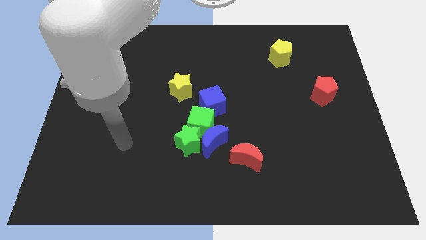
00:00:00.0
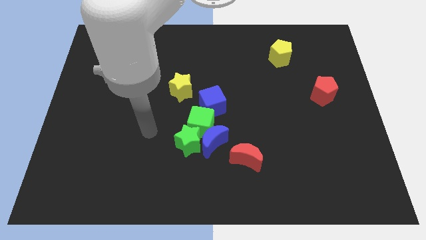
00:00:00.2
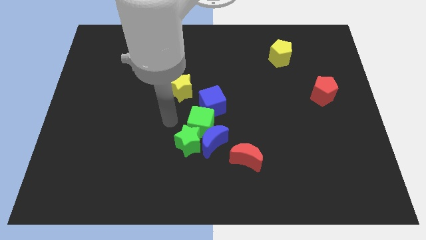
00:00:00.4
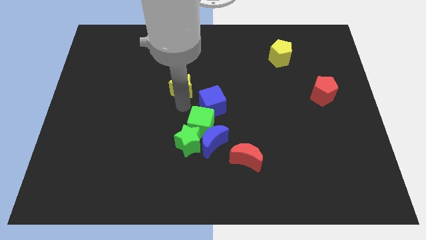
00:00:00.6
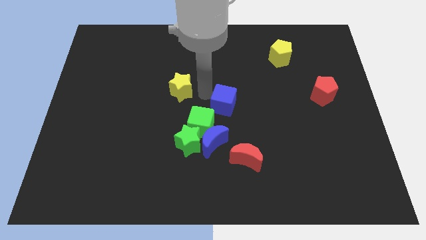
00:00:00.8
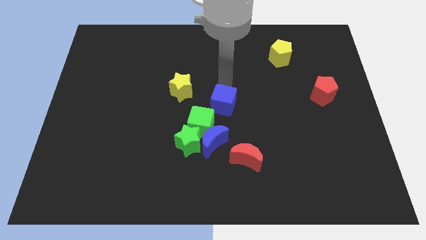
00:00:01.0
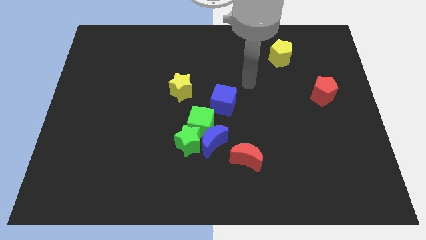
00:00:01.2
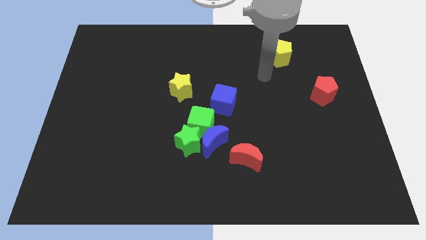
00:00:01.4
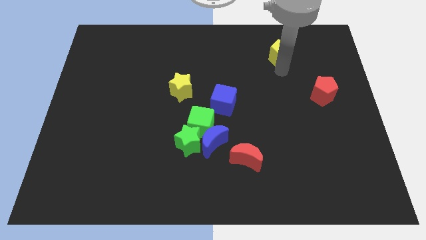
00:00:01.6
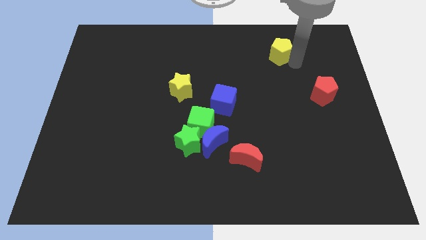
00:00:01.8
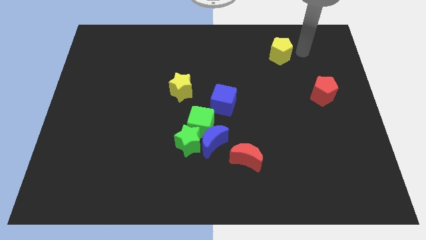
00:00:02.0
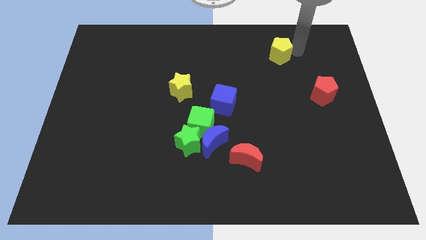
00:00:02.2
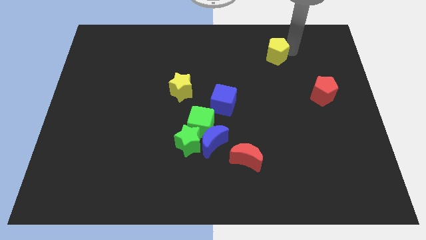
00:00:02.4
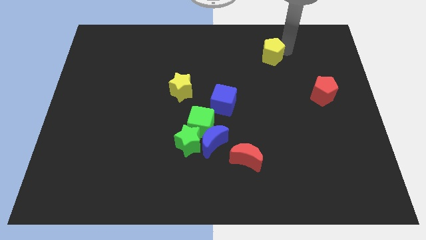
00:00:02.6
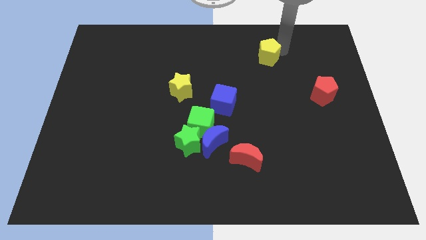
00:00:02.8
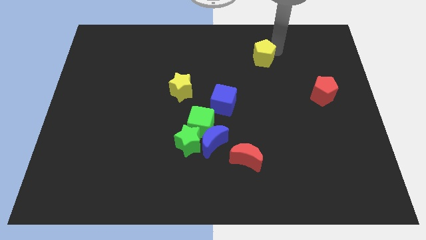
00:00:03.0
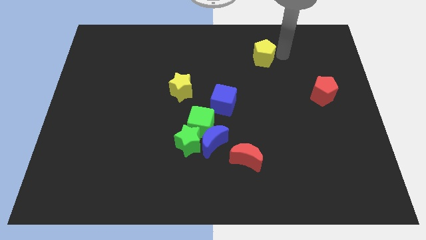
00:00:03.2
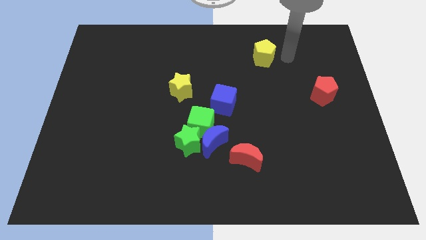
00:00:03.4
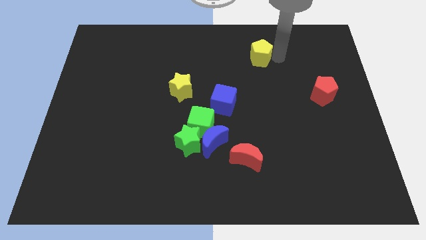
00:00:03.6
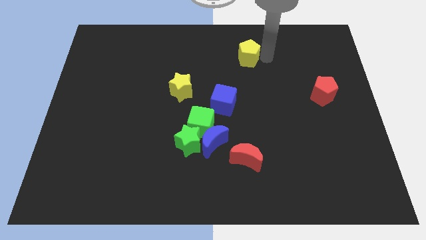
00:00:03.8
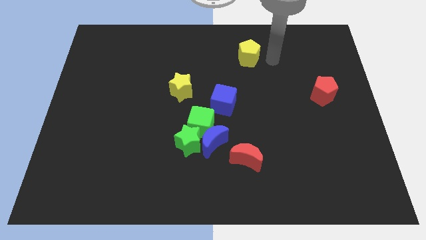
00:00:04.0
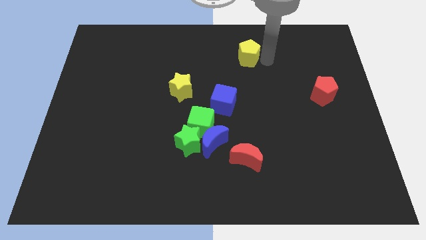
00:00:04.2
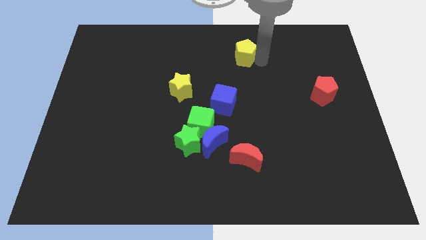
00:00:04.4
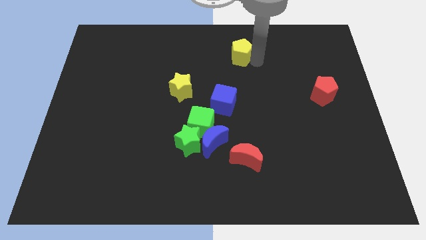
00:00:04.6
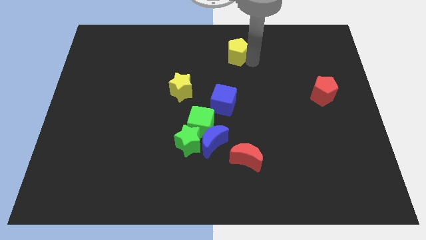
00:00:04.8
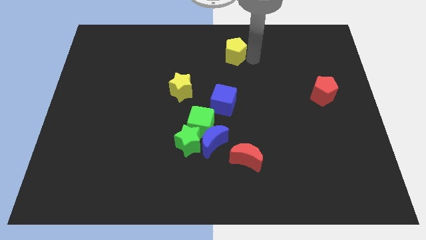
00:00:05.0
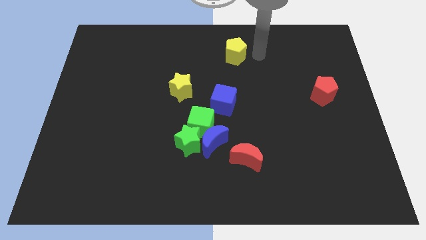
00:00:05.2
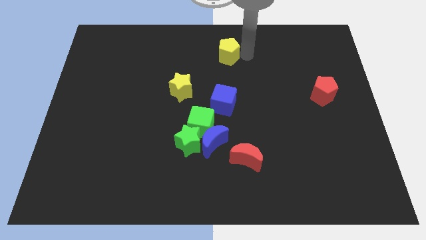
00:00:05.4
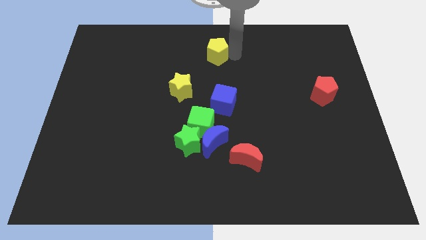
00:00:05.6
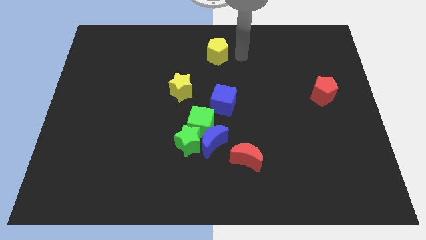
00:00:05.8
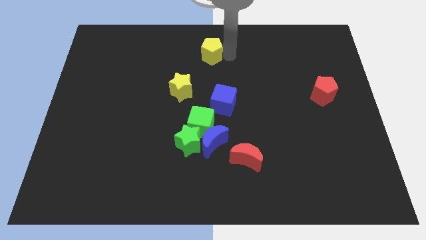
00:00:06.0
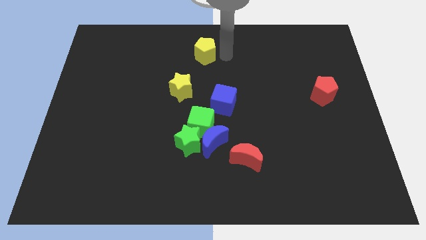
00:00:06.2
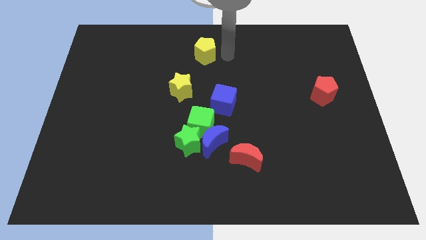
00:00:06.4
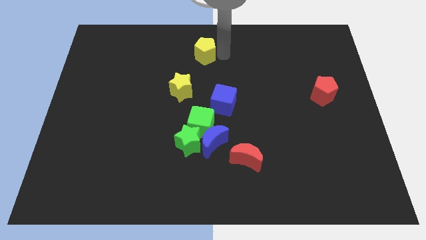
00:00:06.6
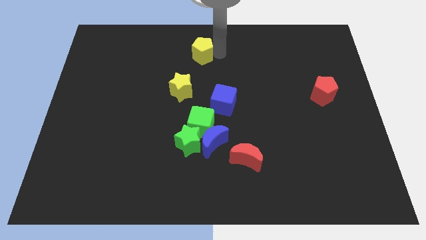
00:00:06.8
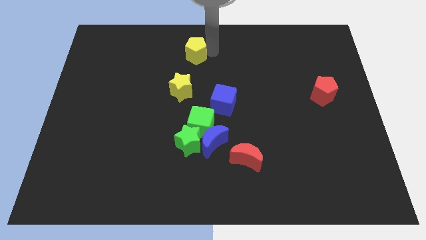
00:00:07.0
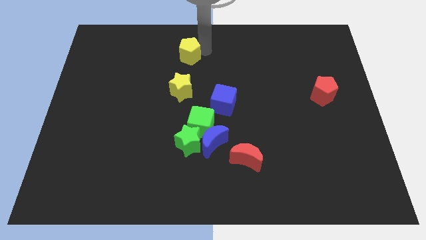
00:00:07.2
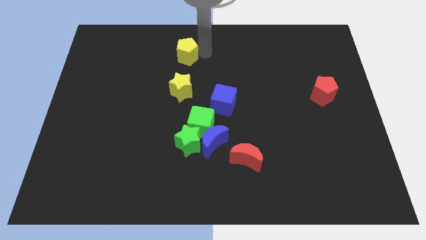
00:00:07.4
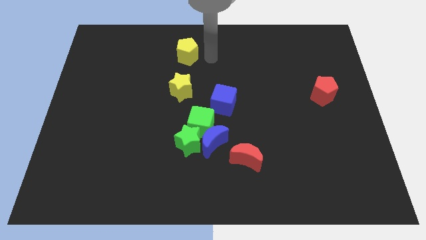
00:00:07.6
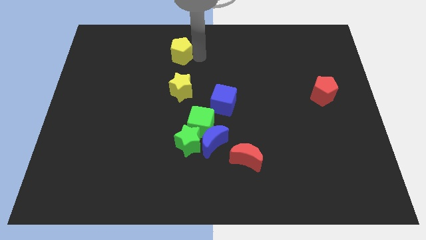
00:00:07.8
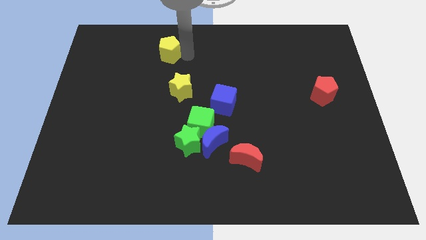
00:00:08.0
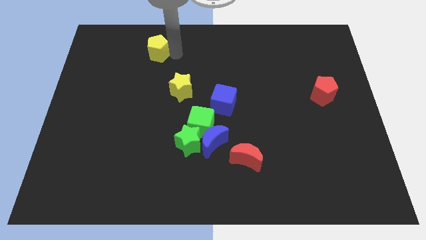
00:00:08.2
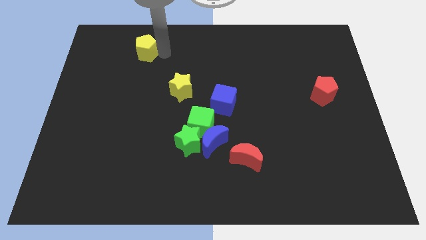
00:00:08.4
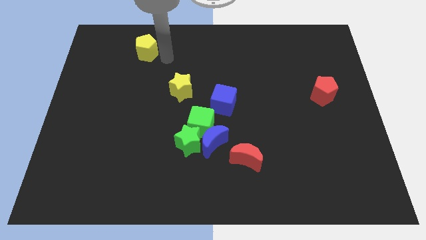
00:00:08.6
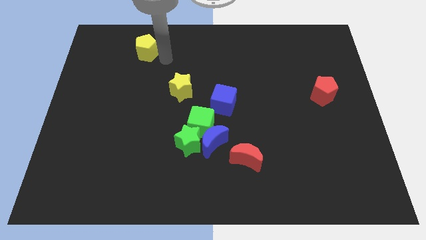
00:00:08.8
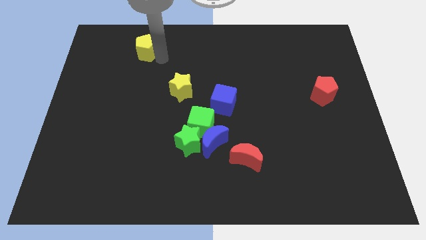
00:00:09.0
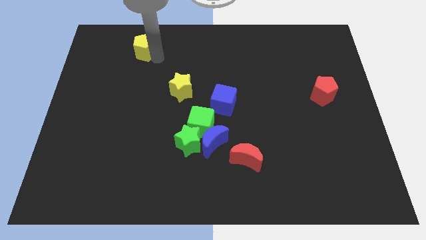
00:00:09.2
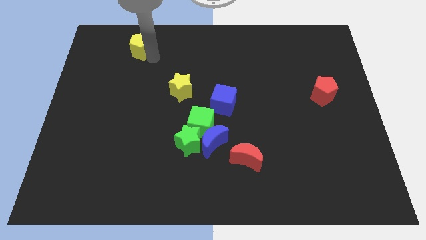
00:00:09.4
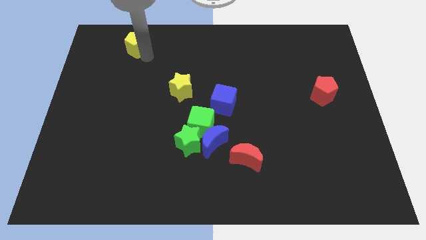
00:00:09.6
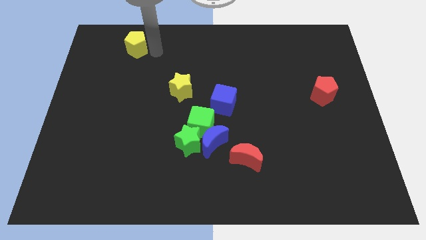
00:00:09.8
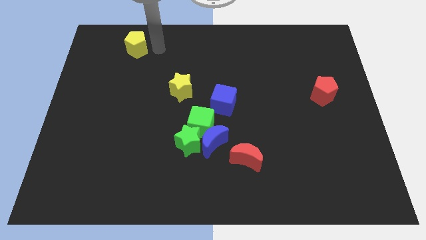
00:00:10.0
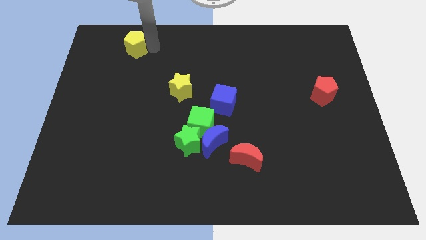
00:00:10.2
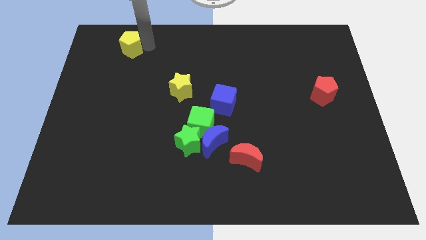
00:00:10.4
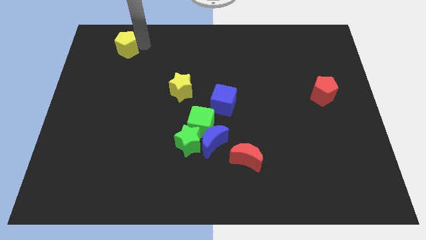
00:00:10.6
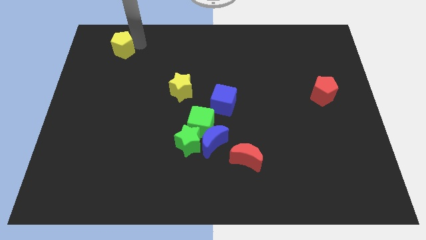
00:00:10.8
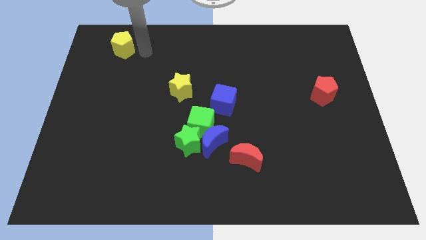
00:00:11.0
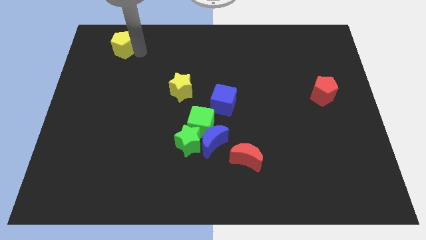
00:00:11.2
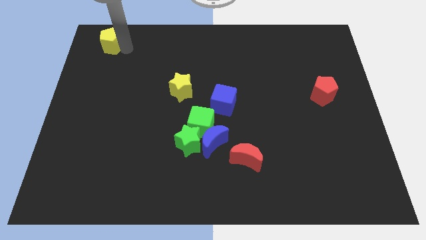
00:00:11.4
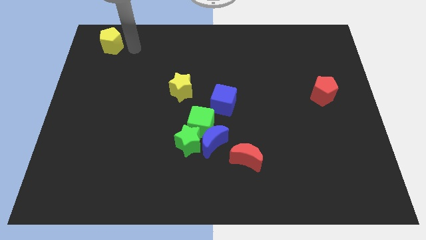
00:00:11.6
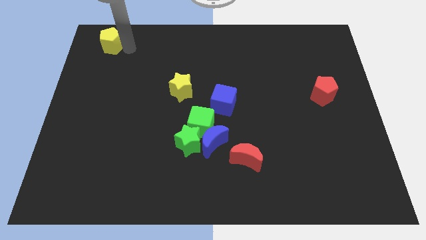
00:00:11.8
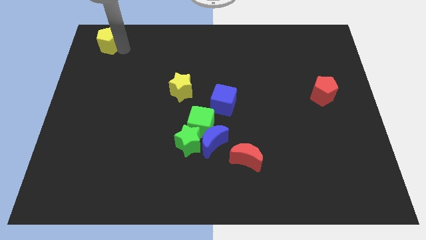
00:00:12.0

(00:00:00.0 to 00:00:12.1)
move the yellow pentagon to the top left corner

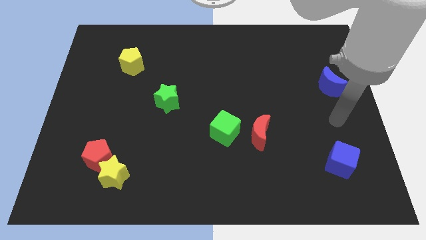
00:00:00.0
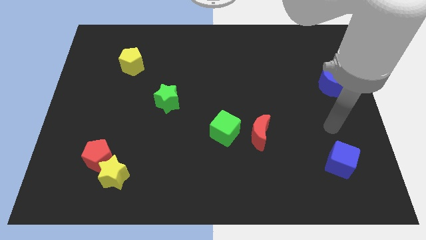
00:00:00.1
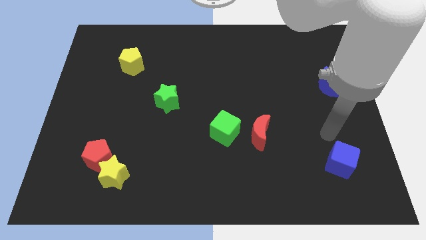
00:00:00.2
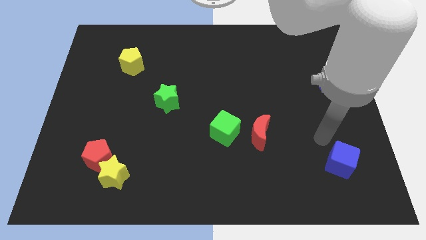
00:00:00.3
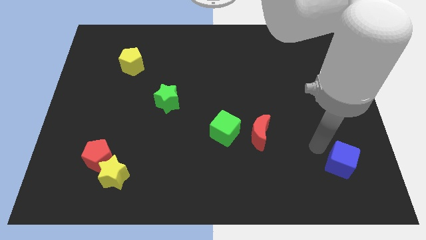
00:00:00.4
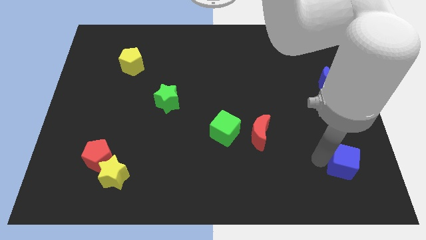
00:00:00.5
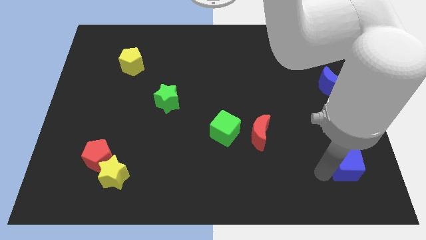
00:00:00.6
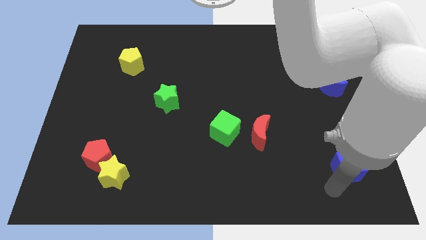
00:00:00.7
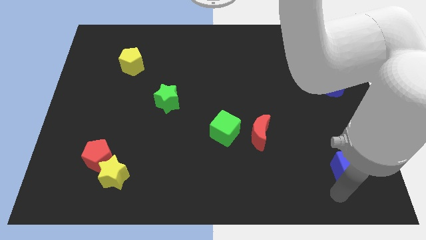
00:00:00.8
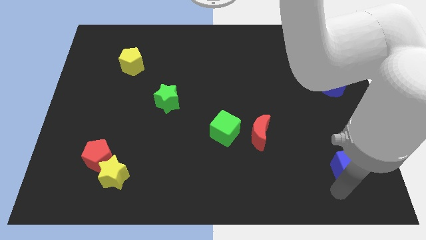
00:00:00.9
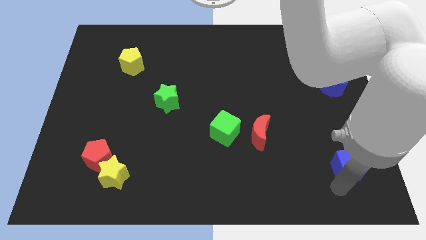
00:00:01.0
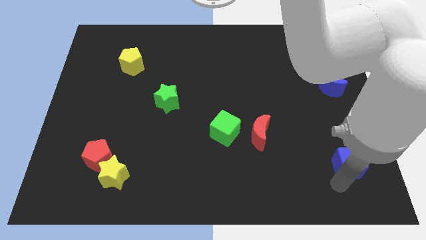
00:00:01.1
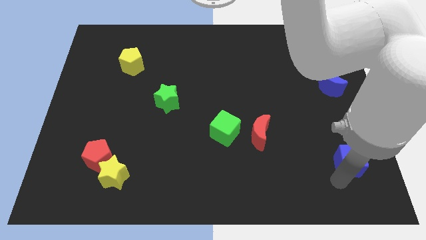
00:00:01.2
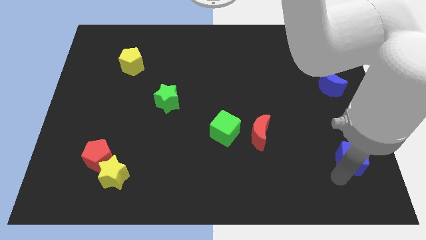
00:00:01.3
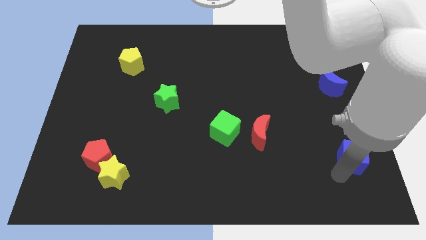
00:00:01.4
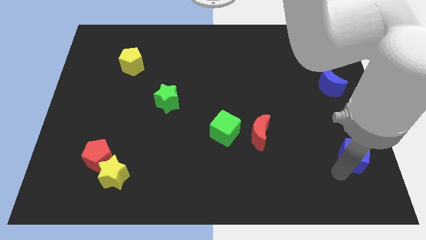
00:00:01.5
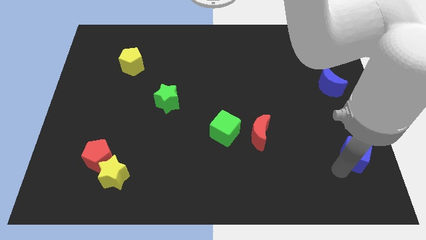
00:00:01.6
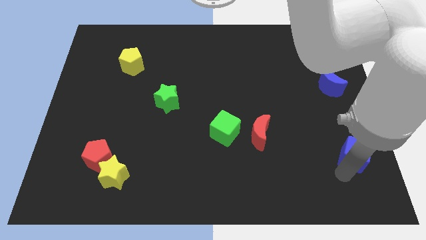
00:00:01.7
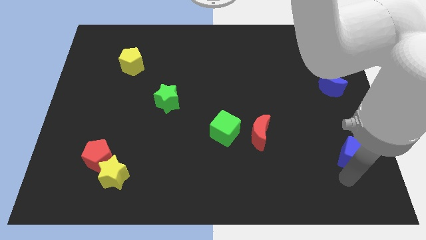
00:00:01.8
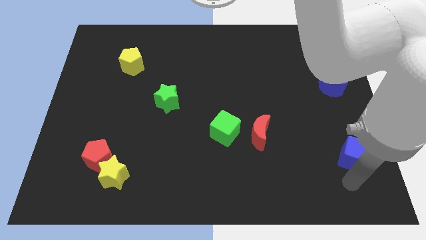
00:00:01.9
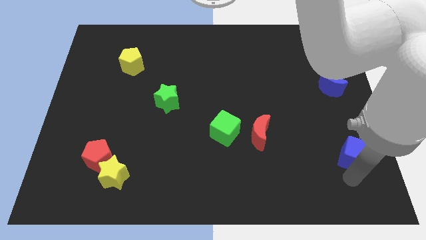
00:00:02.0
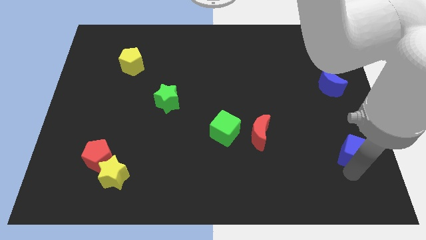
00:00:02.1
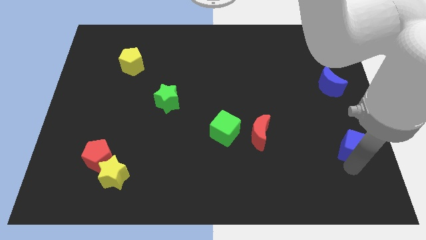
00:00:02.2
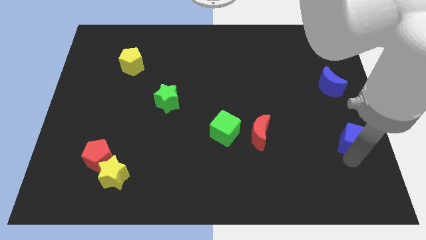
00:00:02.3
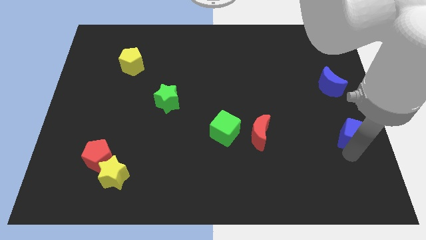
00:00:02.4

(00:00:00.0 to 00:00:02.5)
put the blue cube to the center right
